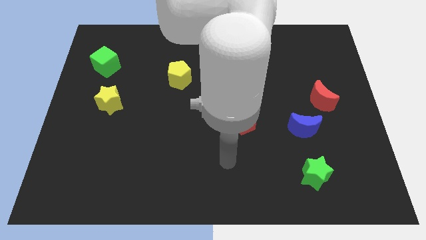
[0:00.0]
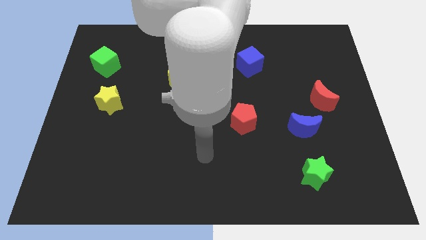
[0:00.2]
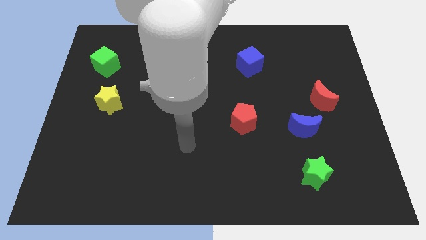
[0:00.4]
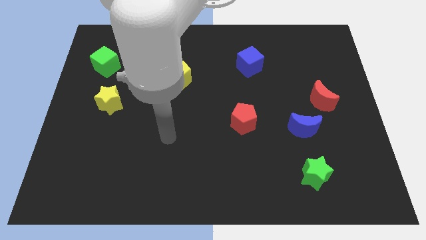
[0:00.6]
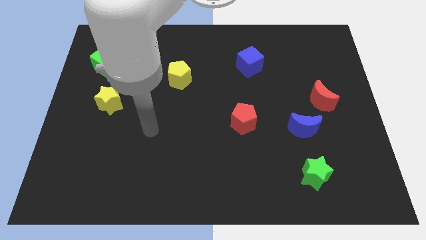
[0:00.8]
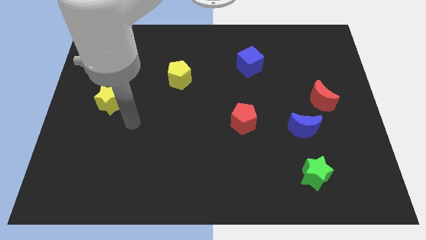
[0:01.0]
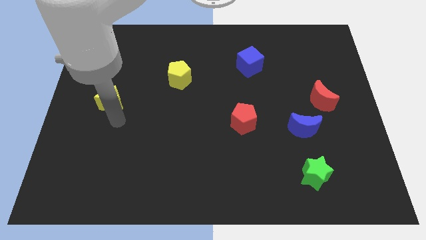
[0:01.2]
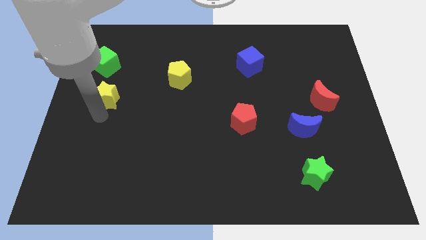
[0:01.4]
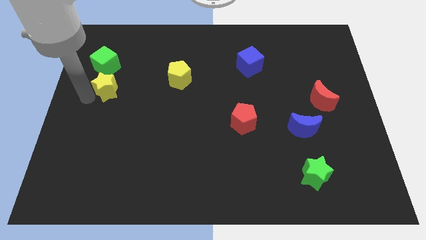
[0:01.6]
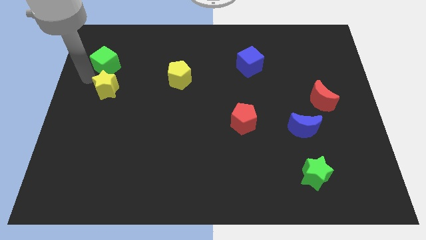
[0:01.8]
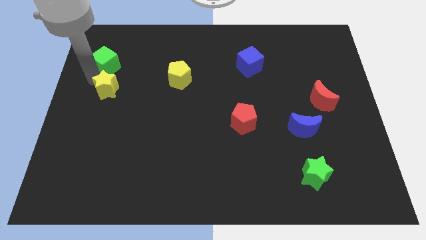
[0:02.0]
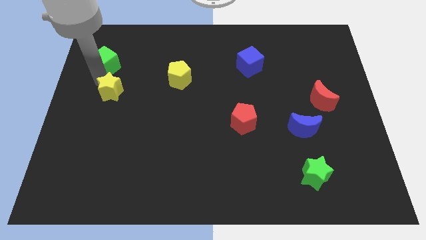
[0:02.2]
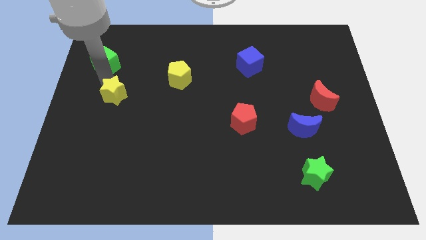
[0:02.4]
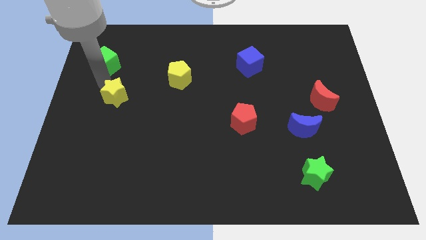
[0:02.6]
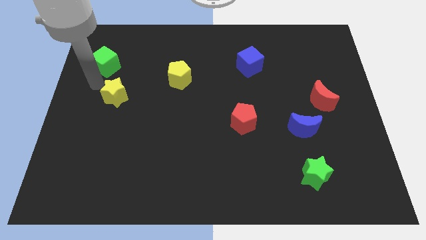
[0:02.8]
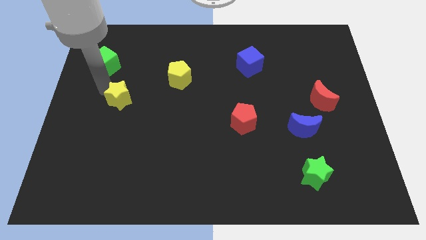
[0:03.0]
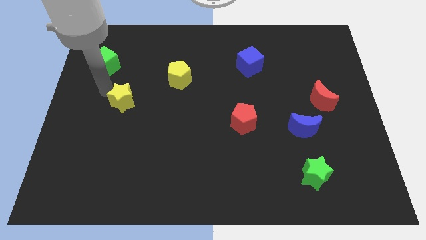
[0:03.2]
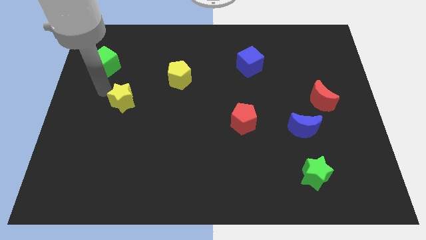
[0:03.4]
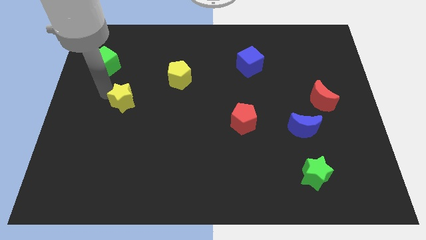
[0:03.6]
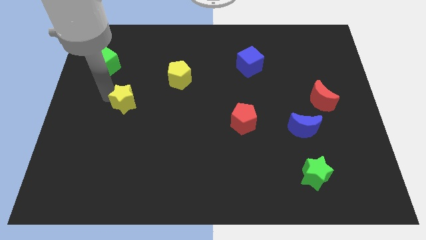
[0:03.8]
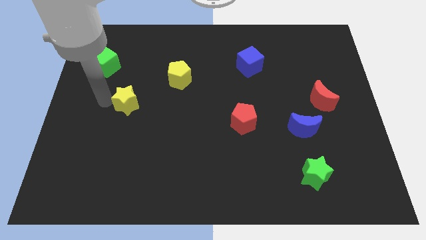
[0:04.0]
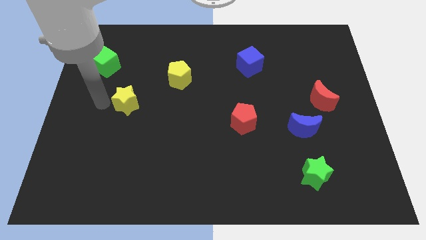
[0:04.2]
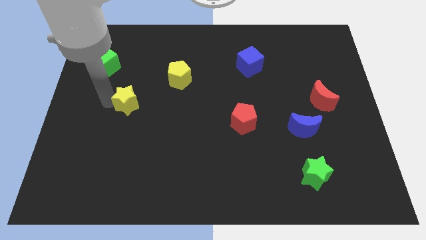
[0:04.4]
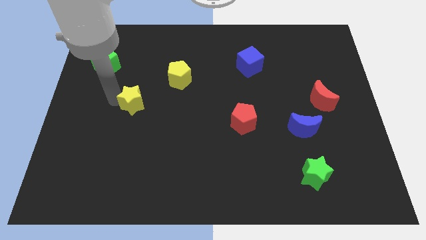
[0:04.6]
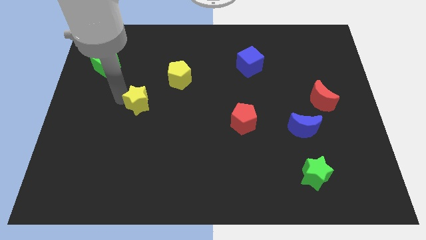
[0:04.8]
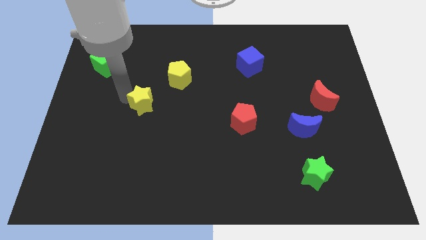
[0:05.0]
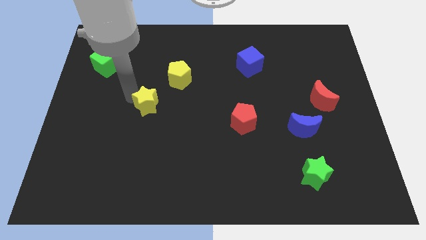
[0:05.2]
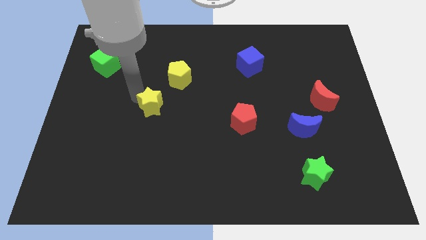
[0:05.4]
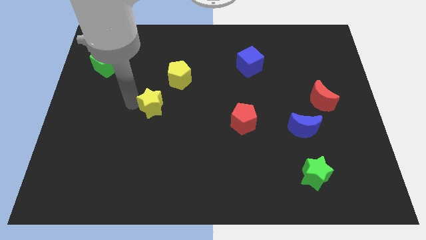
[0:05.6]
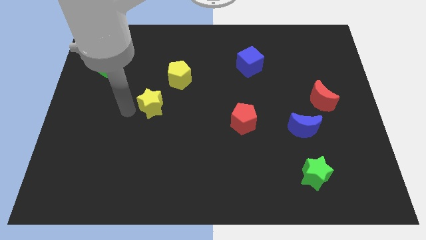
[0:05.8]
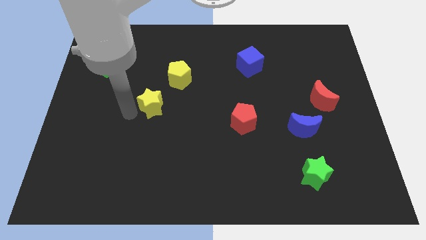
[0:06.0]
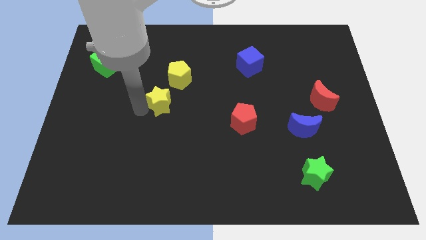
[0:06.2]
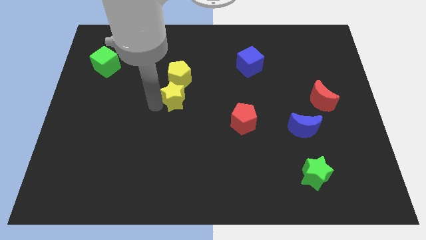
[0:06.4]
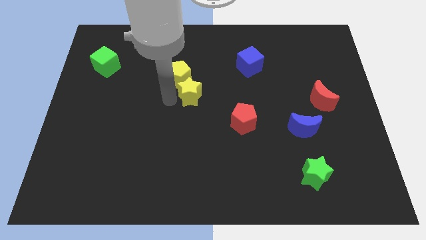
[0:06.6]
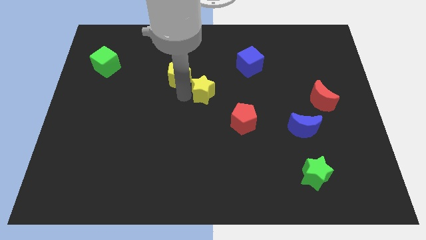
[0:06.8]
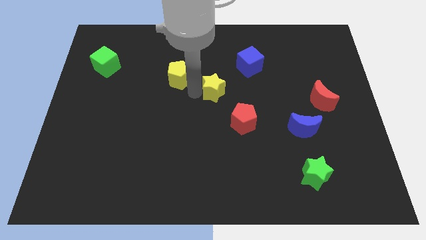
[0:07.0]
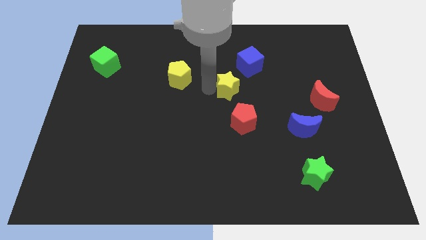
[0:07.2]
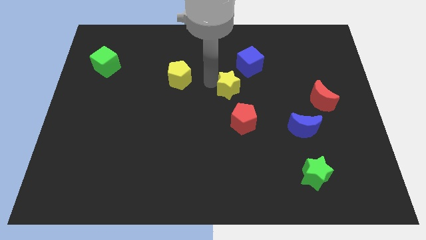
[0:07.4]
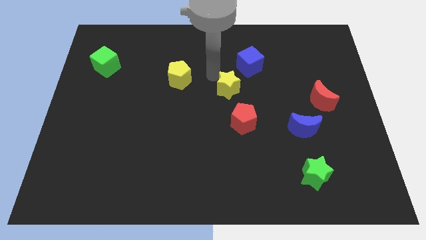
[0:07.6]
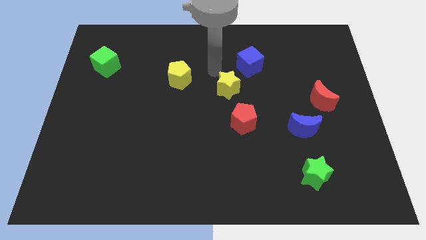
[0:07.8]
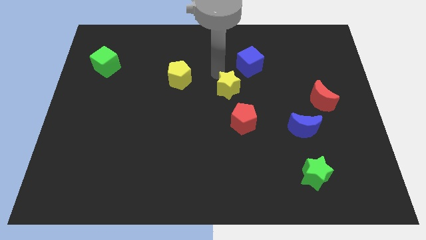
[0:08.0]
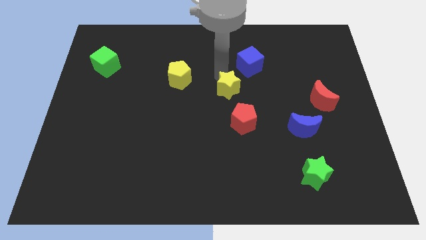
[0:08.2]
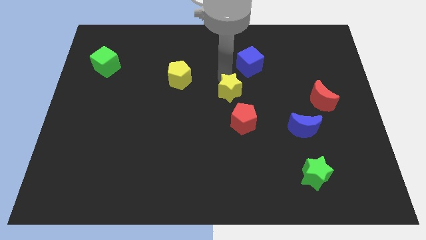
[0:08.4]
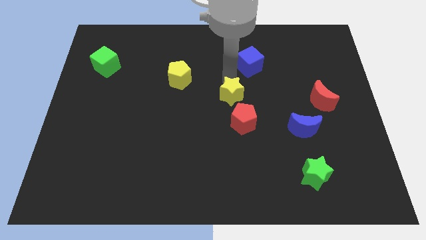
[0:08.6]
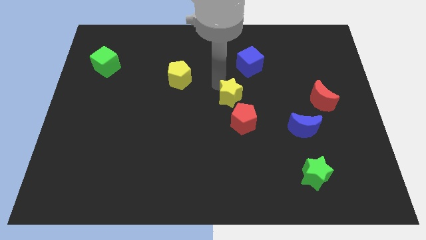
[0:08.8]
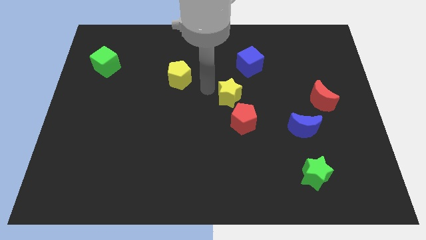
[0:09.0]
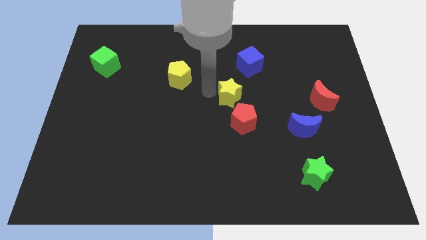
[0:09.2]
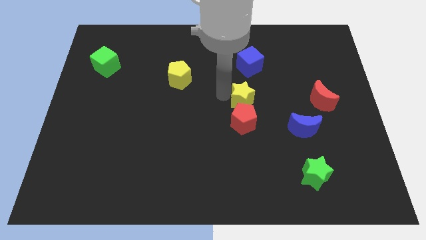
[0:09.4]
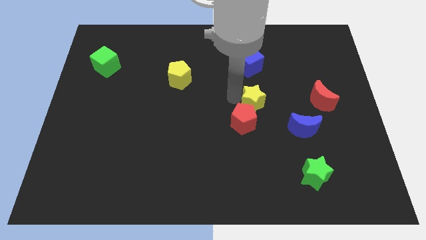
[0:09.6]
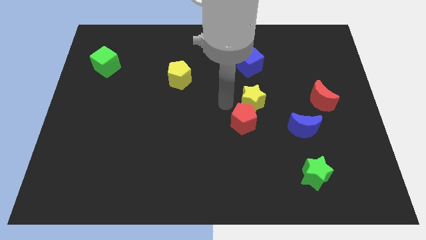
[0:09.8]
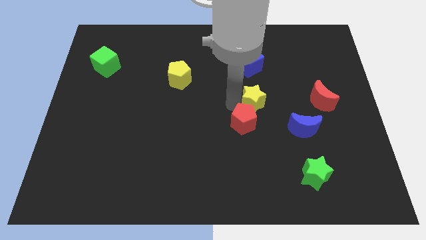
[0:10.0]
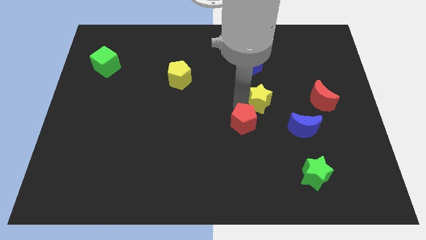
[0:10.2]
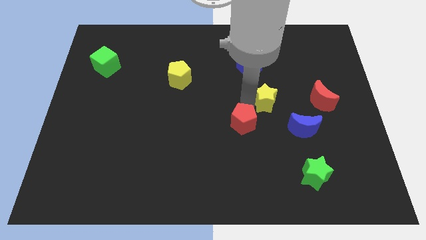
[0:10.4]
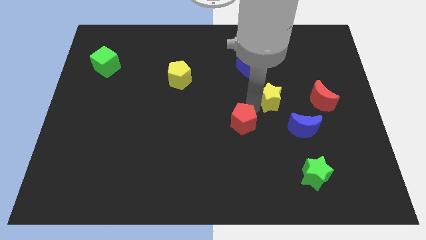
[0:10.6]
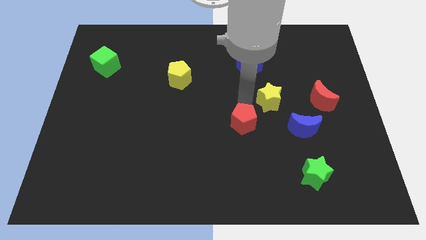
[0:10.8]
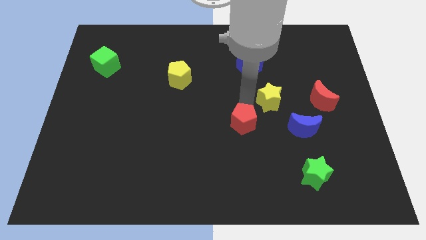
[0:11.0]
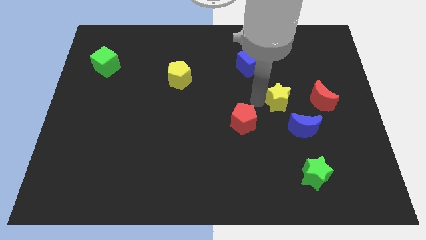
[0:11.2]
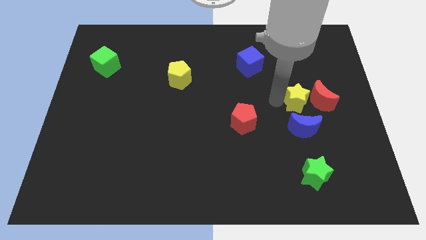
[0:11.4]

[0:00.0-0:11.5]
move the yellow star to the red moon

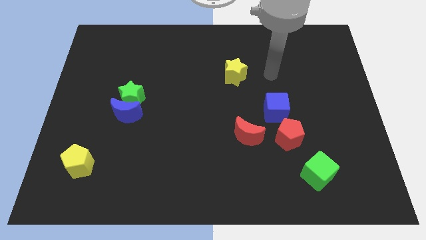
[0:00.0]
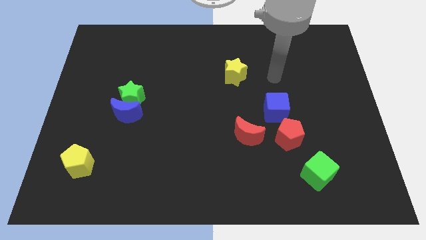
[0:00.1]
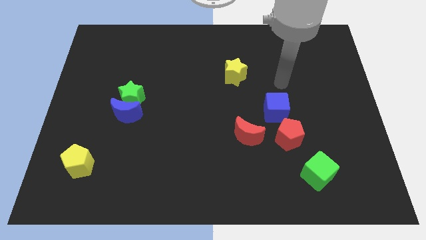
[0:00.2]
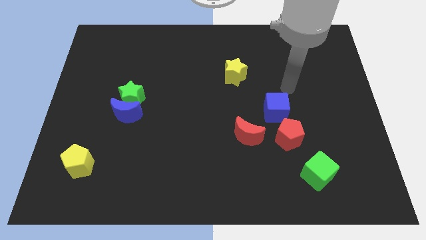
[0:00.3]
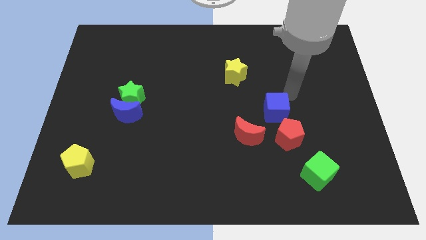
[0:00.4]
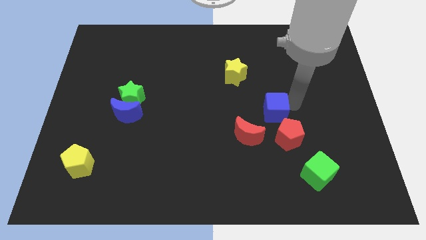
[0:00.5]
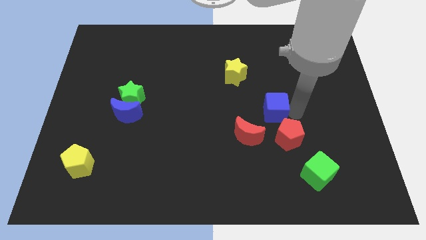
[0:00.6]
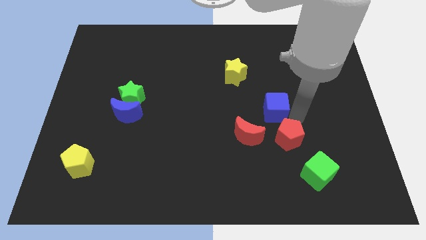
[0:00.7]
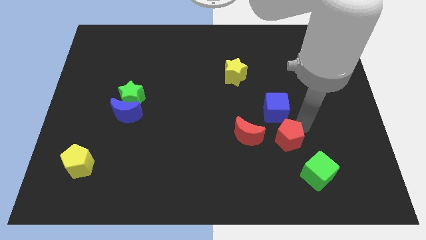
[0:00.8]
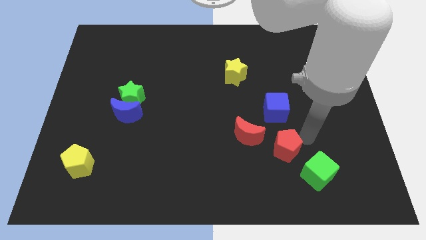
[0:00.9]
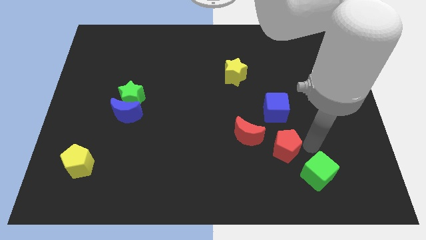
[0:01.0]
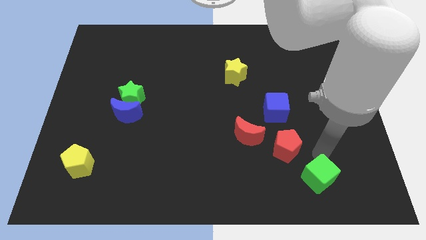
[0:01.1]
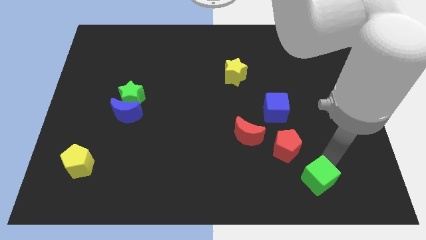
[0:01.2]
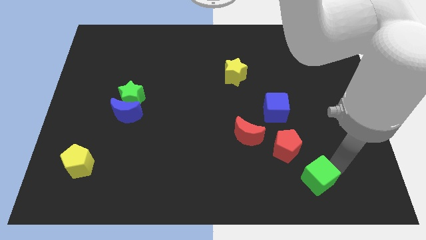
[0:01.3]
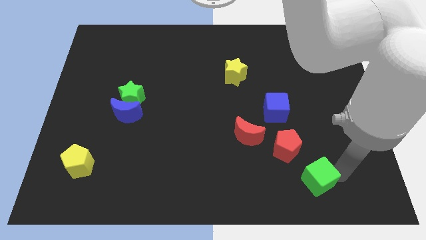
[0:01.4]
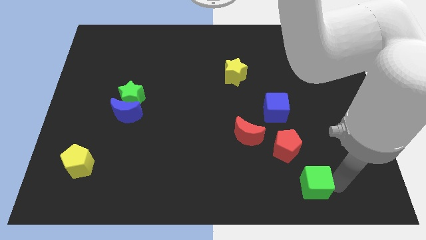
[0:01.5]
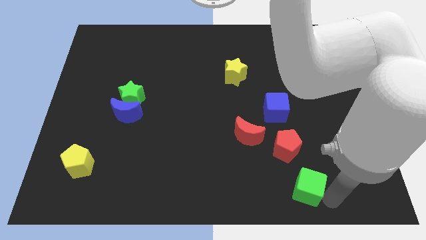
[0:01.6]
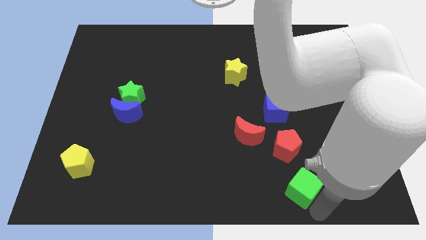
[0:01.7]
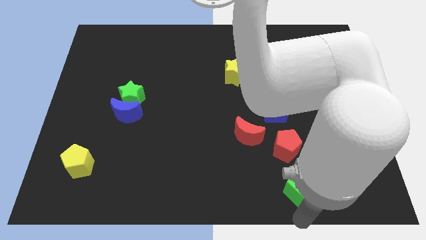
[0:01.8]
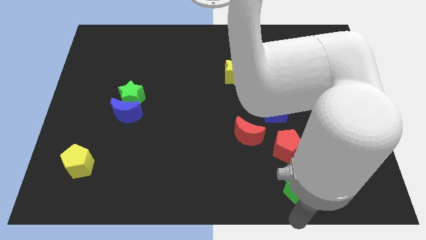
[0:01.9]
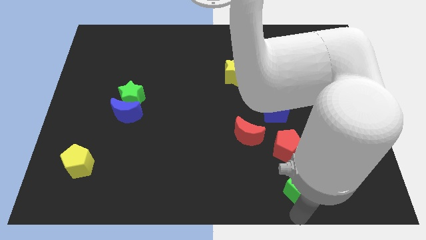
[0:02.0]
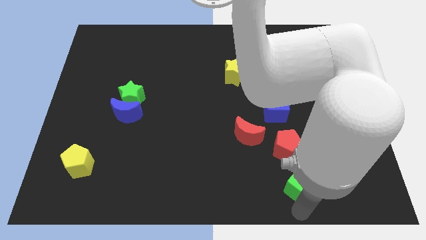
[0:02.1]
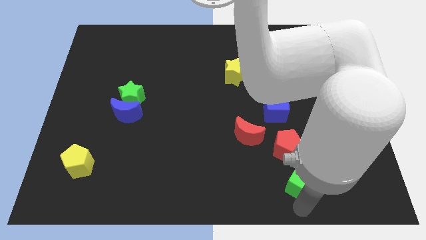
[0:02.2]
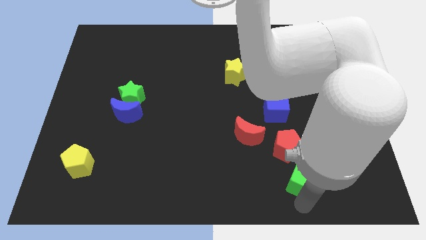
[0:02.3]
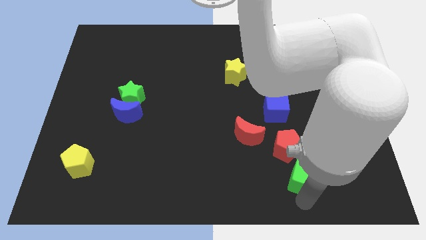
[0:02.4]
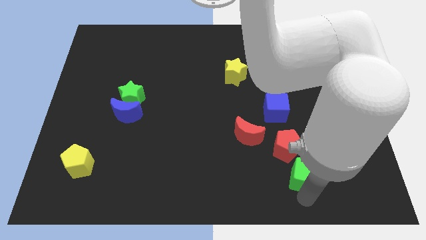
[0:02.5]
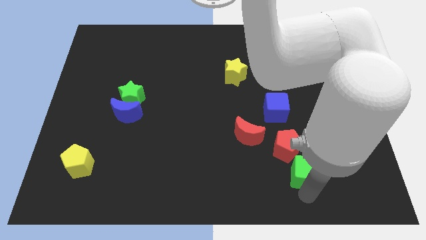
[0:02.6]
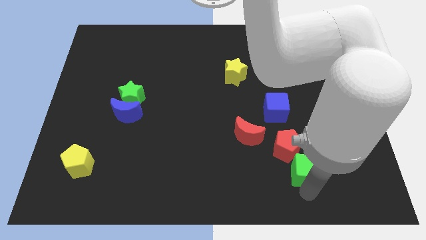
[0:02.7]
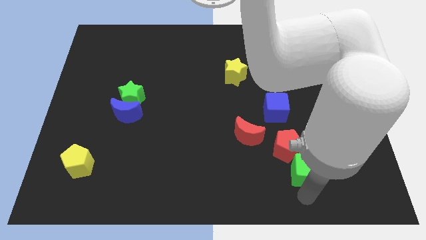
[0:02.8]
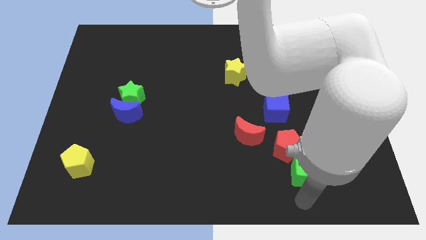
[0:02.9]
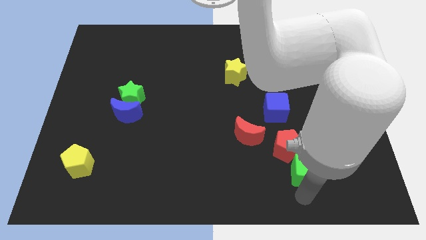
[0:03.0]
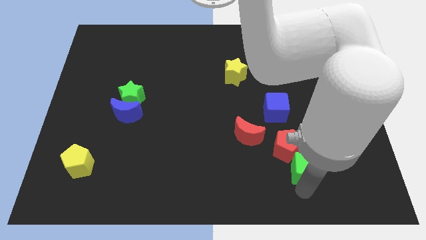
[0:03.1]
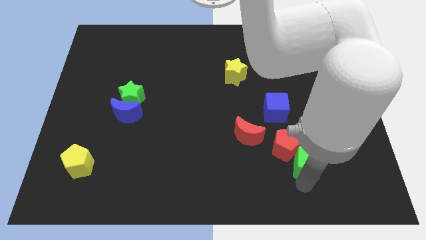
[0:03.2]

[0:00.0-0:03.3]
push the green cube close to the red pentagon
